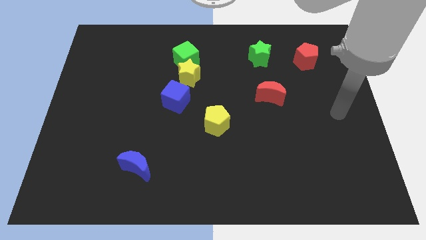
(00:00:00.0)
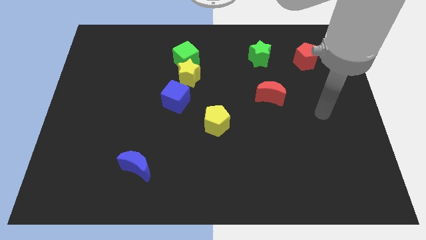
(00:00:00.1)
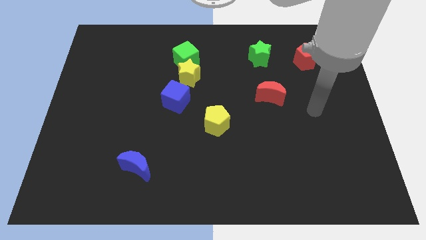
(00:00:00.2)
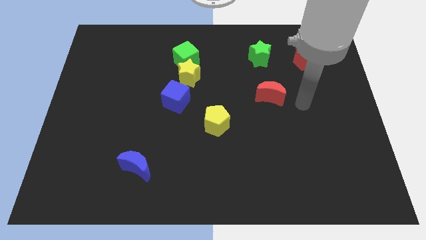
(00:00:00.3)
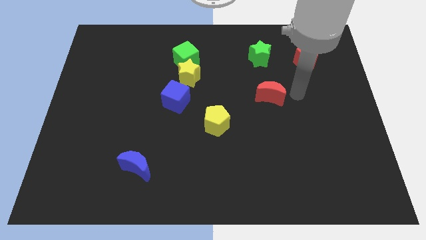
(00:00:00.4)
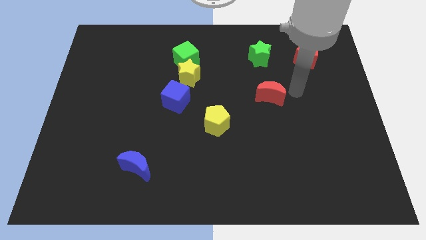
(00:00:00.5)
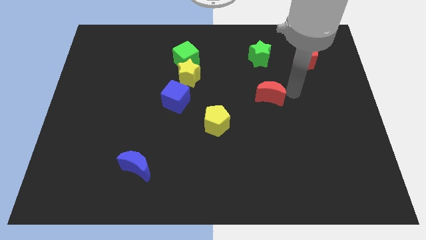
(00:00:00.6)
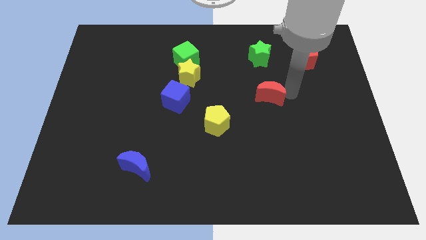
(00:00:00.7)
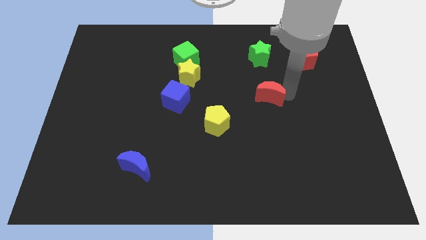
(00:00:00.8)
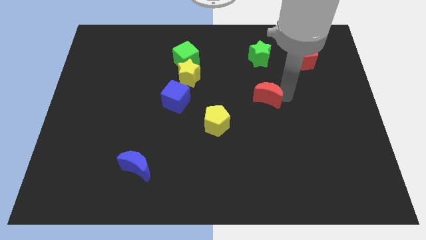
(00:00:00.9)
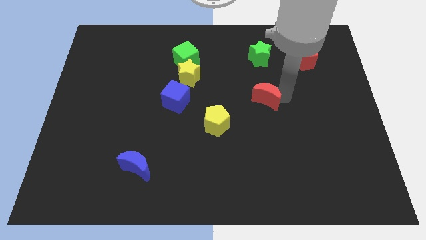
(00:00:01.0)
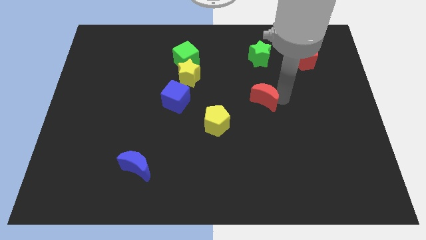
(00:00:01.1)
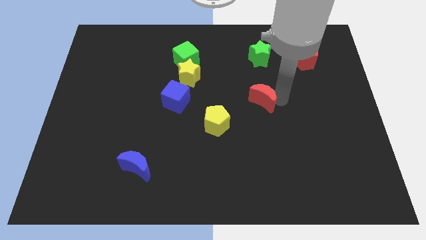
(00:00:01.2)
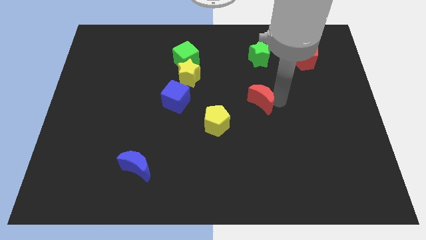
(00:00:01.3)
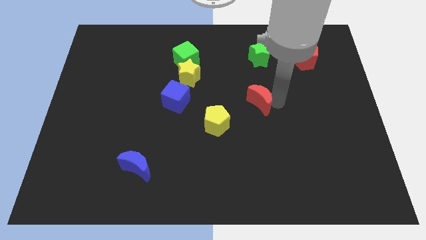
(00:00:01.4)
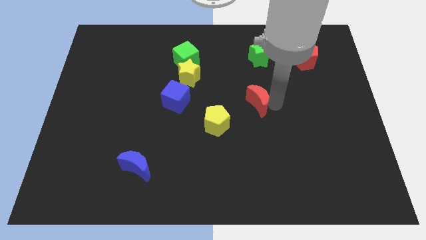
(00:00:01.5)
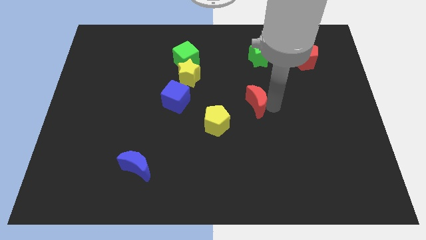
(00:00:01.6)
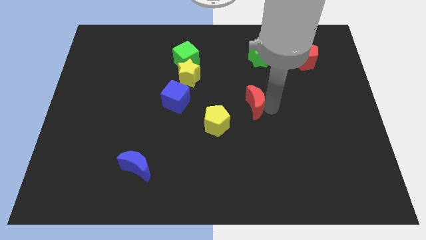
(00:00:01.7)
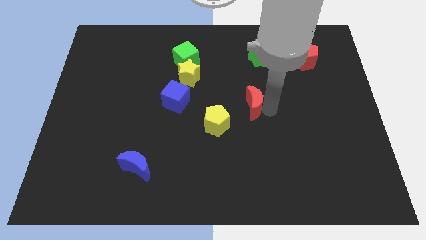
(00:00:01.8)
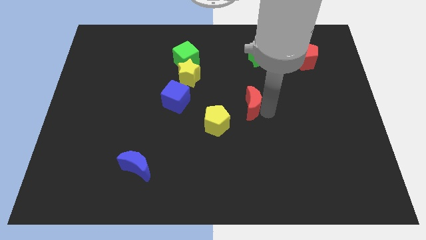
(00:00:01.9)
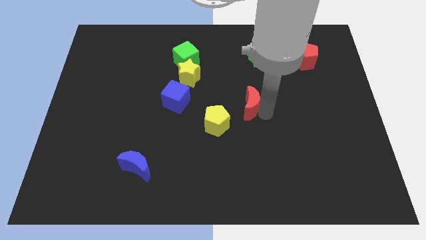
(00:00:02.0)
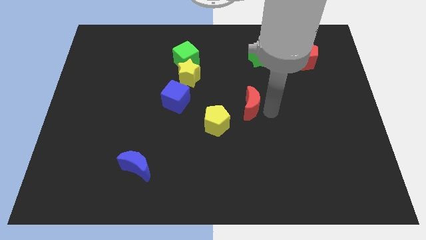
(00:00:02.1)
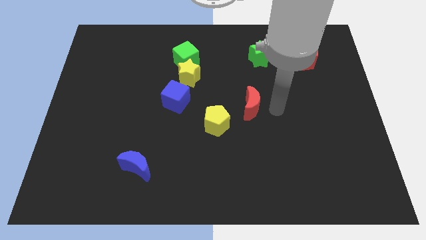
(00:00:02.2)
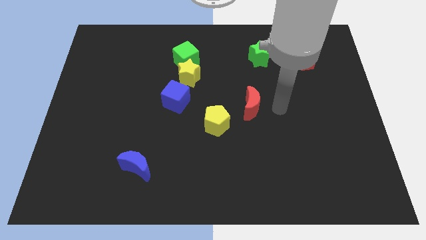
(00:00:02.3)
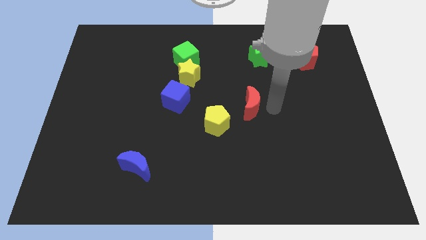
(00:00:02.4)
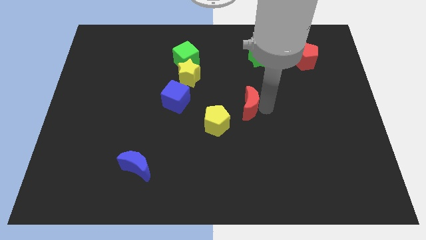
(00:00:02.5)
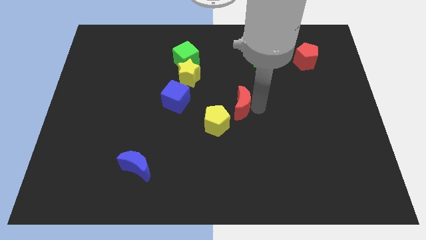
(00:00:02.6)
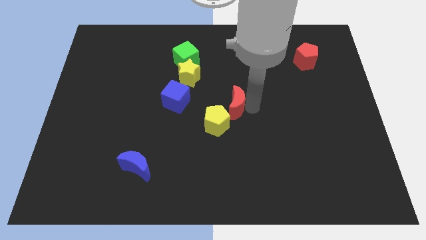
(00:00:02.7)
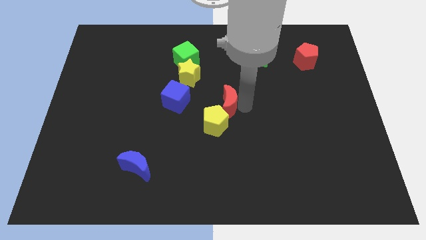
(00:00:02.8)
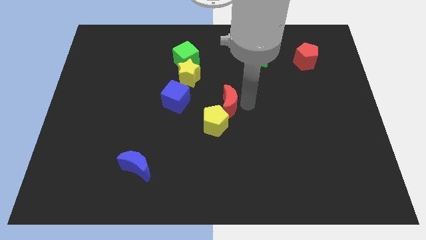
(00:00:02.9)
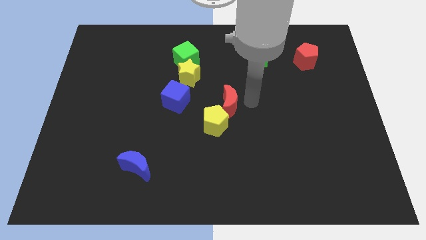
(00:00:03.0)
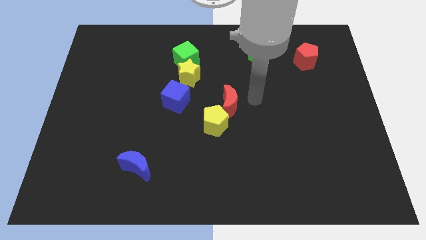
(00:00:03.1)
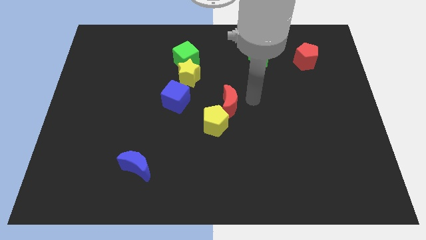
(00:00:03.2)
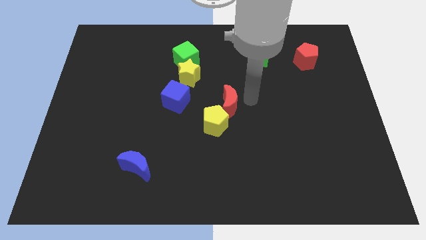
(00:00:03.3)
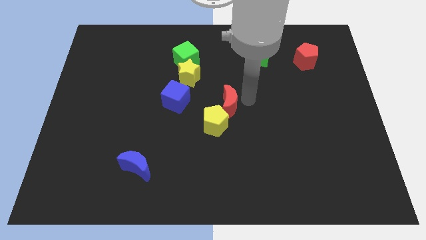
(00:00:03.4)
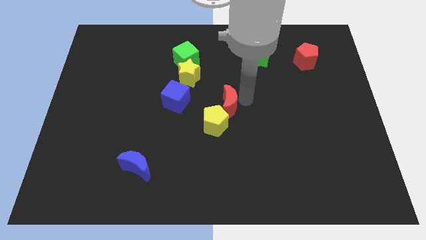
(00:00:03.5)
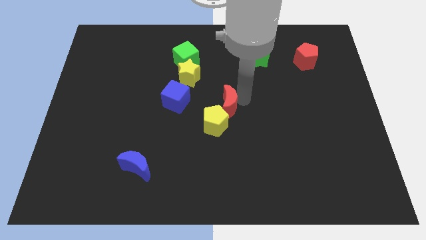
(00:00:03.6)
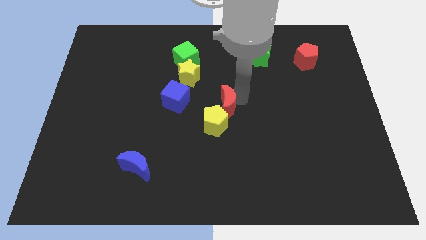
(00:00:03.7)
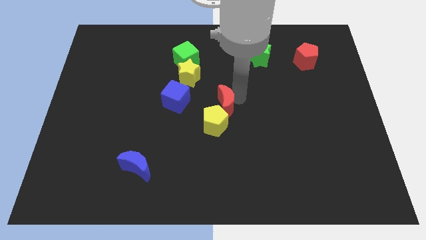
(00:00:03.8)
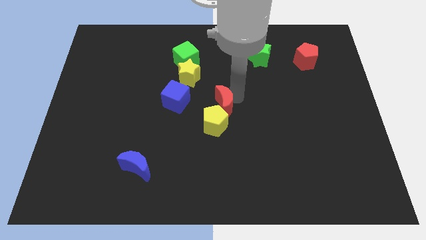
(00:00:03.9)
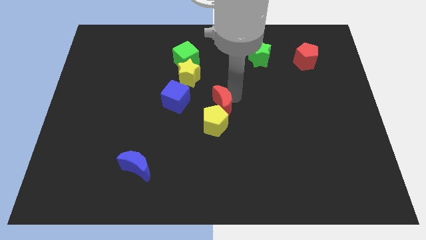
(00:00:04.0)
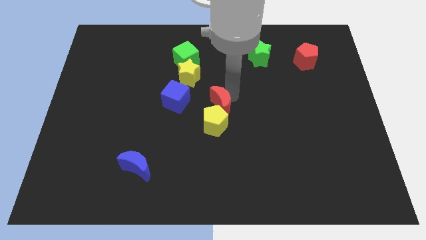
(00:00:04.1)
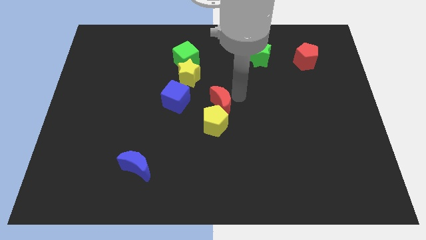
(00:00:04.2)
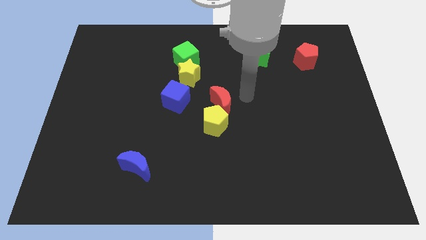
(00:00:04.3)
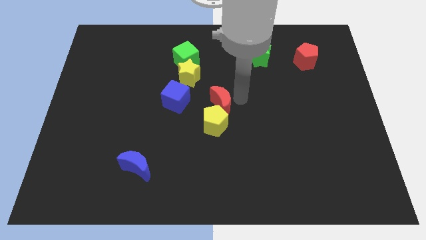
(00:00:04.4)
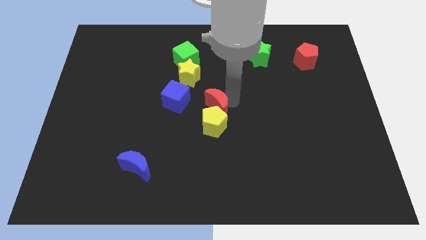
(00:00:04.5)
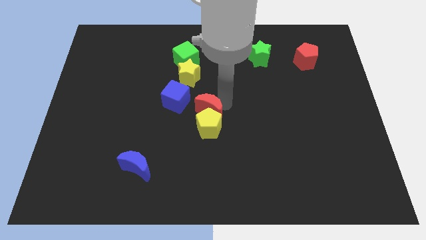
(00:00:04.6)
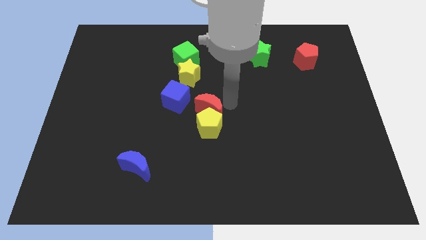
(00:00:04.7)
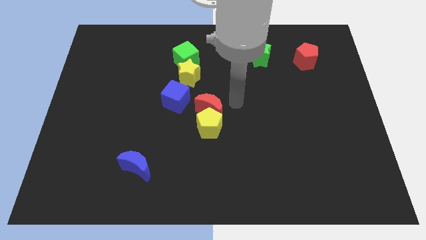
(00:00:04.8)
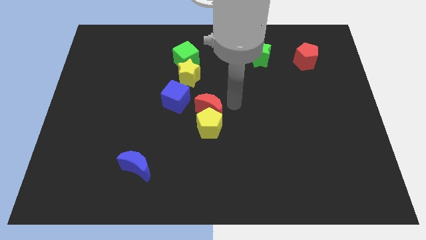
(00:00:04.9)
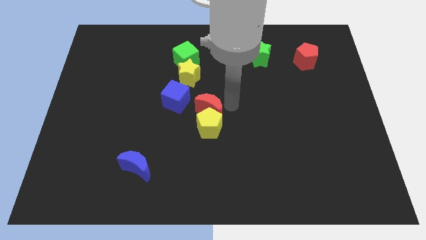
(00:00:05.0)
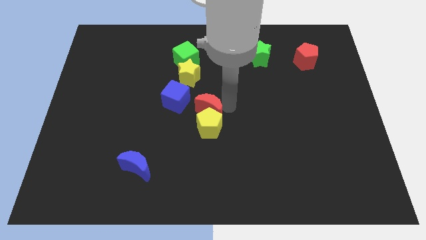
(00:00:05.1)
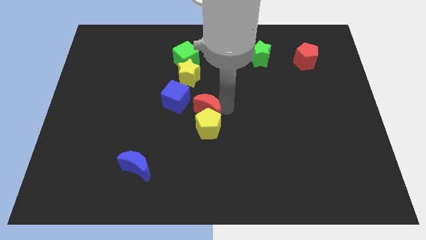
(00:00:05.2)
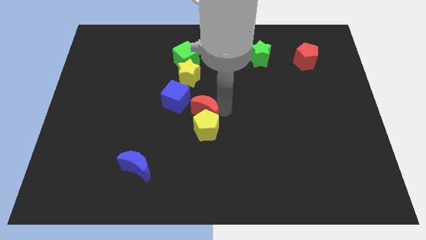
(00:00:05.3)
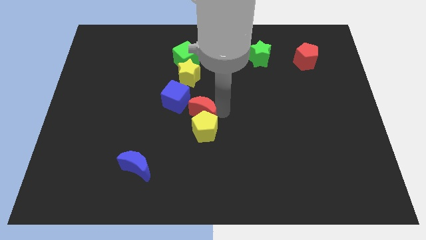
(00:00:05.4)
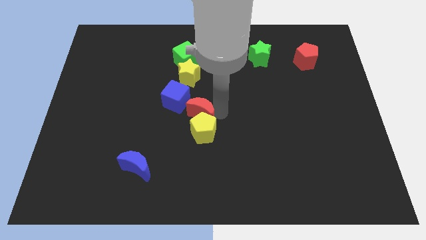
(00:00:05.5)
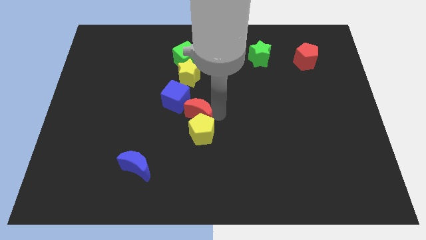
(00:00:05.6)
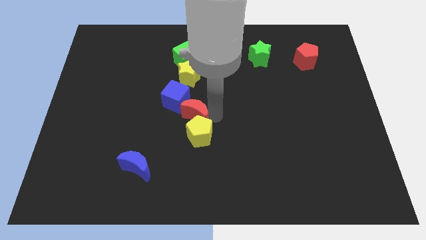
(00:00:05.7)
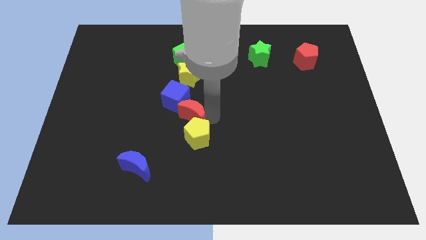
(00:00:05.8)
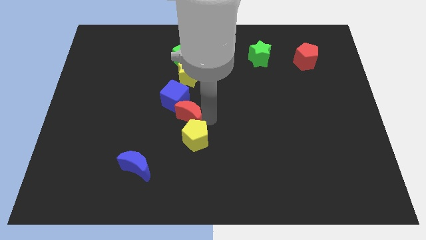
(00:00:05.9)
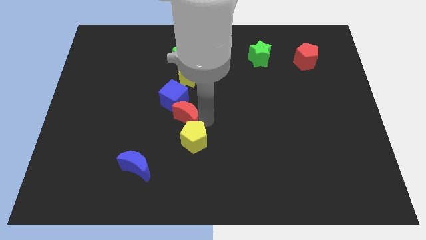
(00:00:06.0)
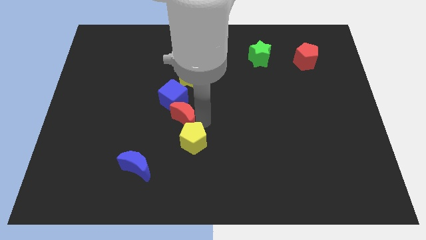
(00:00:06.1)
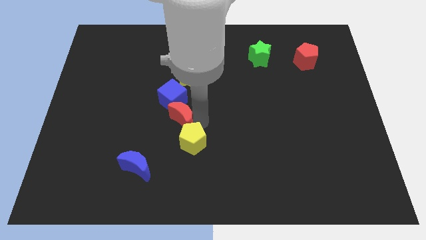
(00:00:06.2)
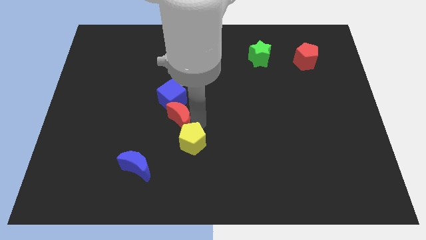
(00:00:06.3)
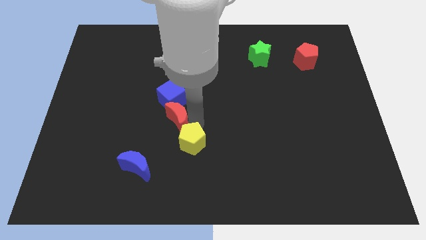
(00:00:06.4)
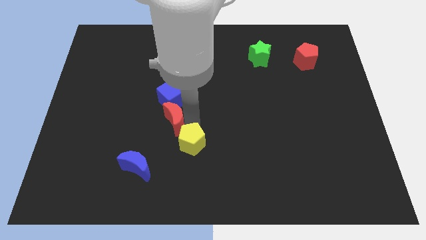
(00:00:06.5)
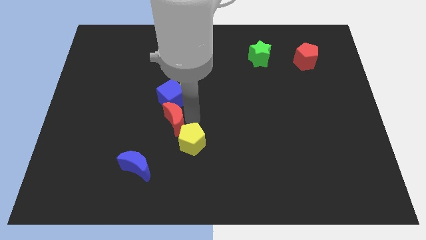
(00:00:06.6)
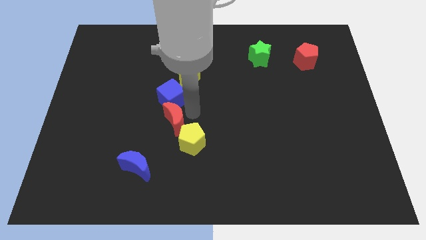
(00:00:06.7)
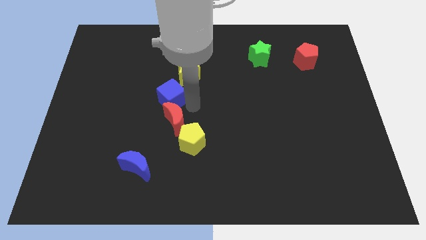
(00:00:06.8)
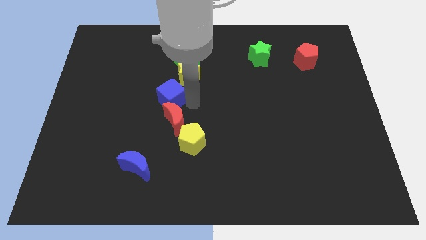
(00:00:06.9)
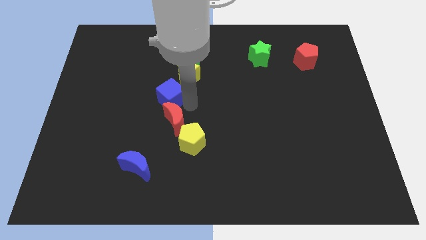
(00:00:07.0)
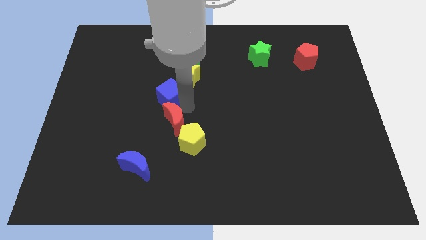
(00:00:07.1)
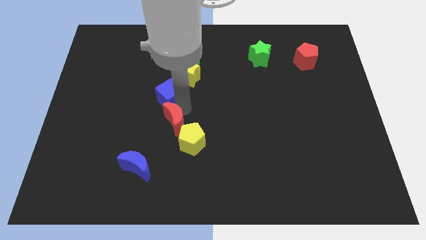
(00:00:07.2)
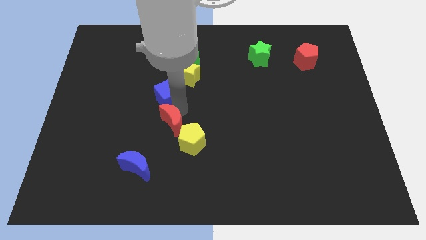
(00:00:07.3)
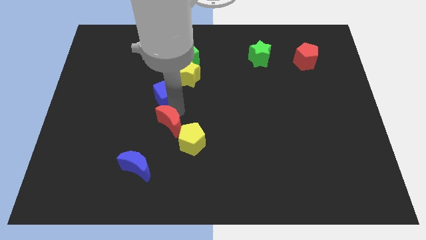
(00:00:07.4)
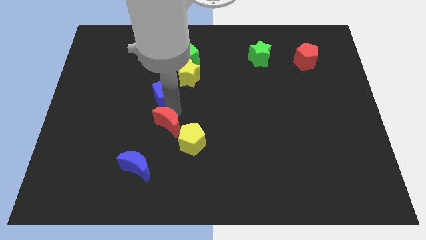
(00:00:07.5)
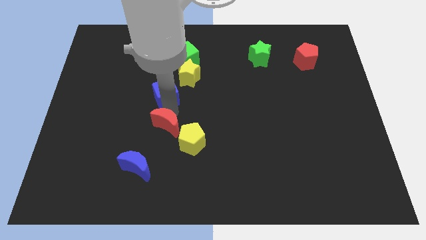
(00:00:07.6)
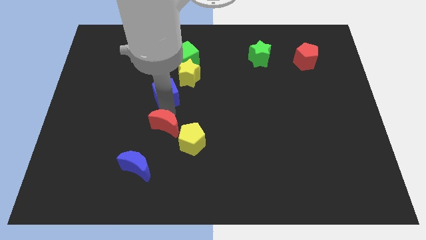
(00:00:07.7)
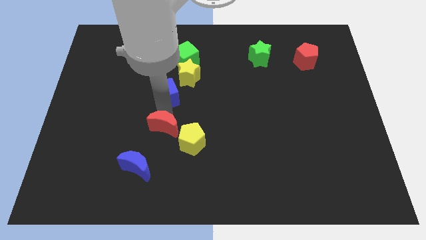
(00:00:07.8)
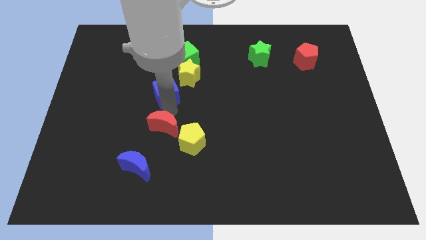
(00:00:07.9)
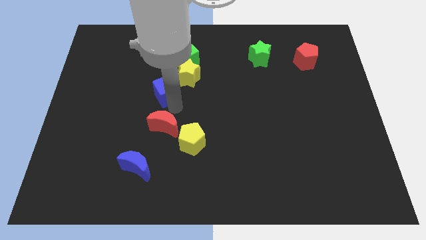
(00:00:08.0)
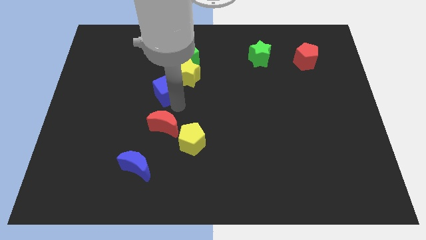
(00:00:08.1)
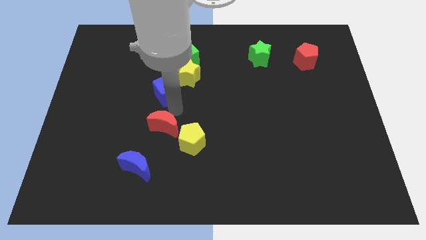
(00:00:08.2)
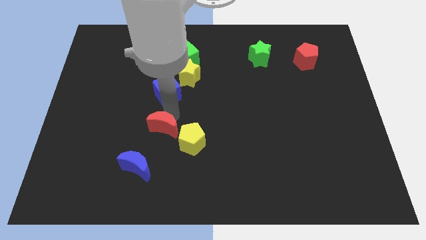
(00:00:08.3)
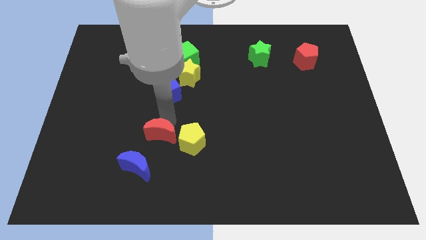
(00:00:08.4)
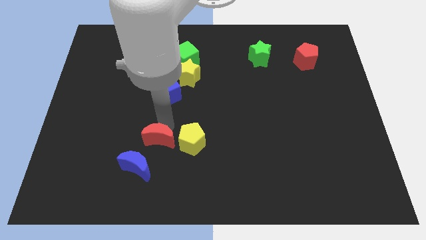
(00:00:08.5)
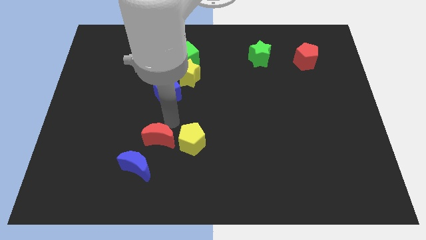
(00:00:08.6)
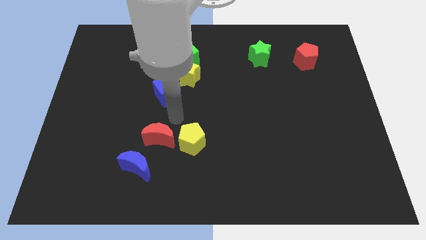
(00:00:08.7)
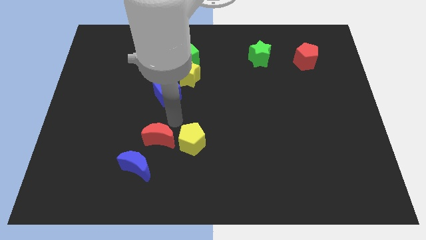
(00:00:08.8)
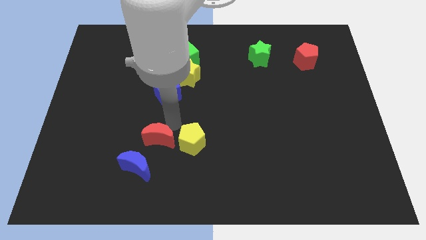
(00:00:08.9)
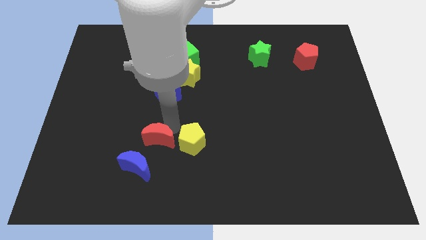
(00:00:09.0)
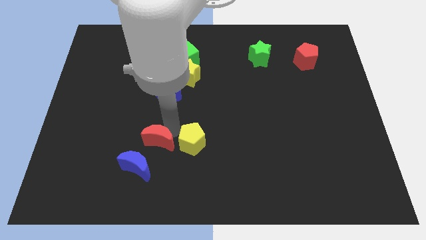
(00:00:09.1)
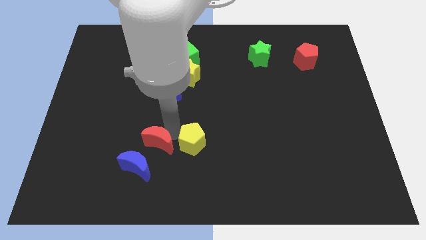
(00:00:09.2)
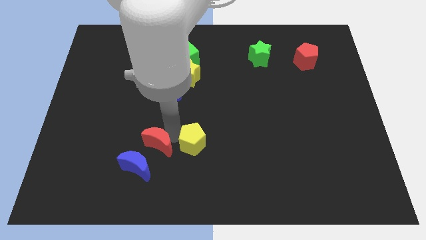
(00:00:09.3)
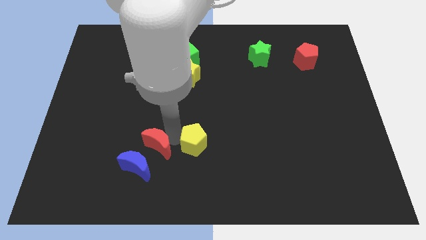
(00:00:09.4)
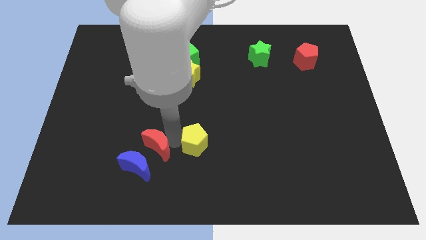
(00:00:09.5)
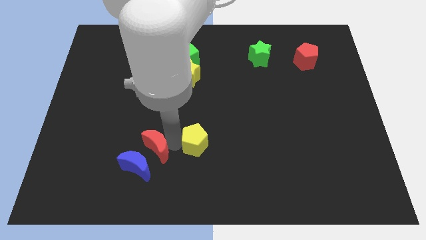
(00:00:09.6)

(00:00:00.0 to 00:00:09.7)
push the red moon towards the blue moon
